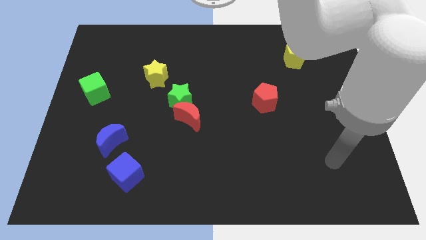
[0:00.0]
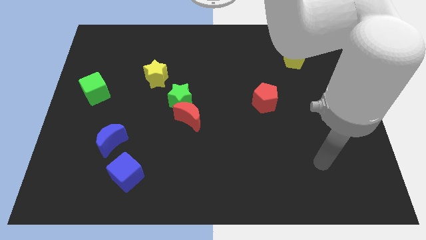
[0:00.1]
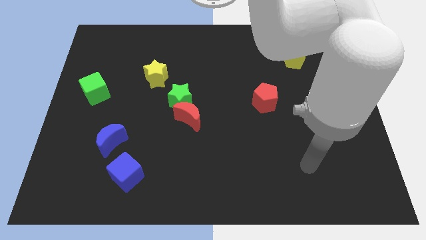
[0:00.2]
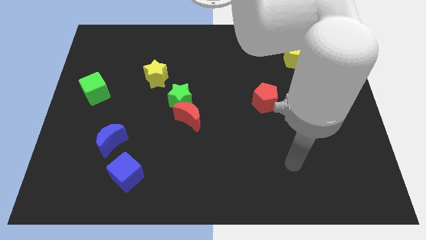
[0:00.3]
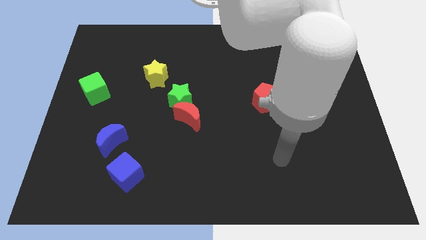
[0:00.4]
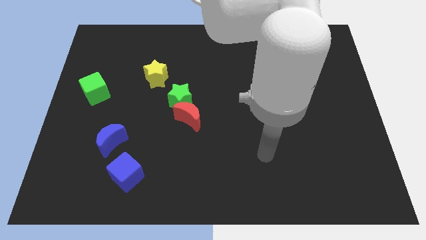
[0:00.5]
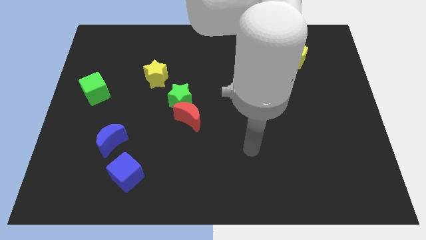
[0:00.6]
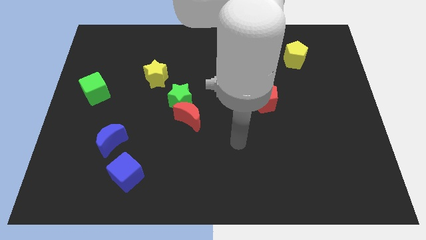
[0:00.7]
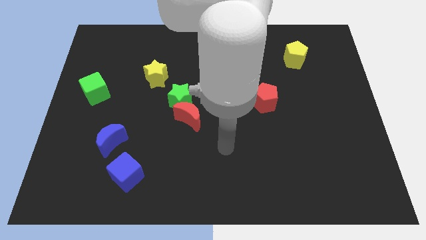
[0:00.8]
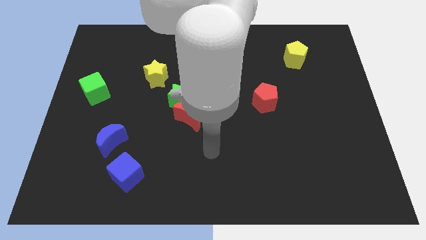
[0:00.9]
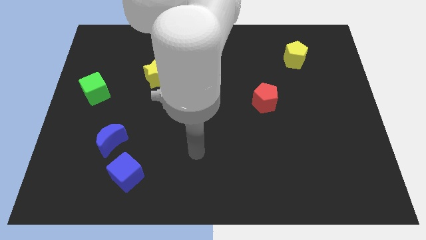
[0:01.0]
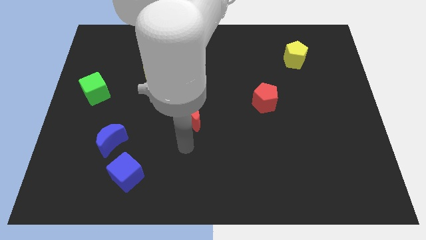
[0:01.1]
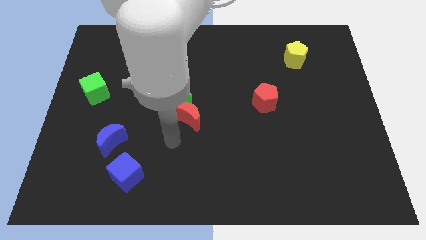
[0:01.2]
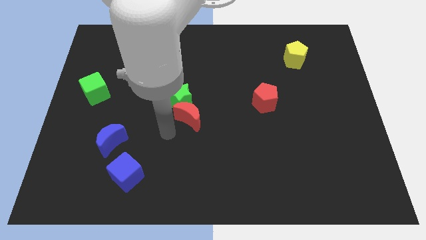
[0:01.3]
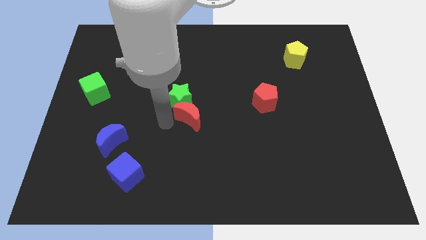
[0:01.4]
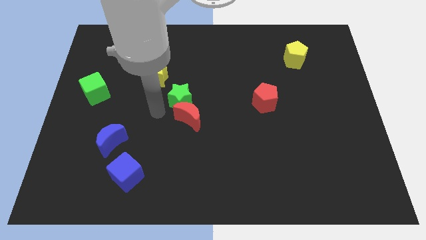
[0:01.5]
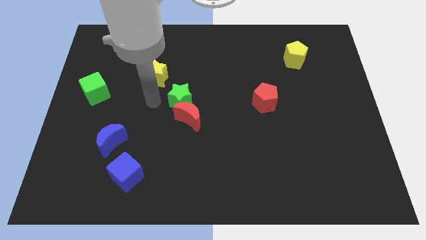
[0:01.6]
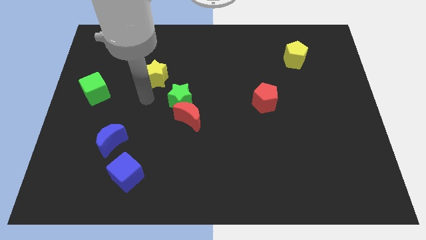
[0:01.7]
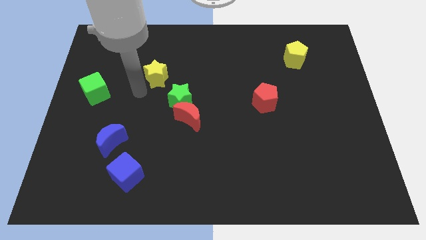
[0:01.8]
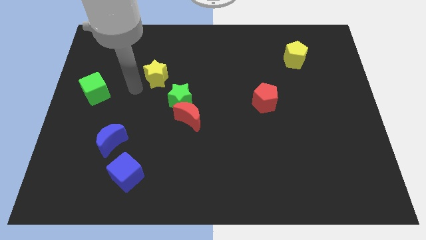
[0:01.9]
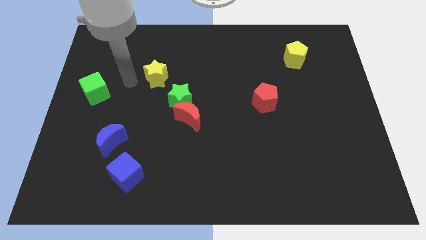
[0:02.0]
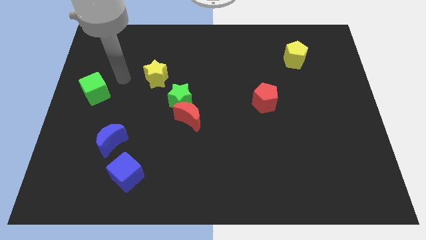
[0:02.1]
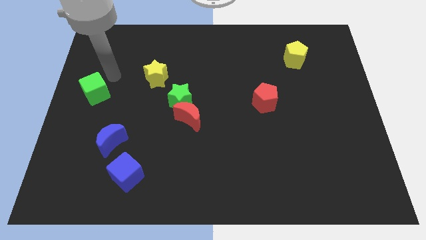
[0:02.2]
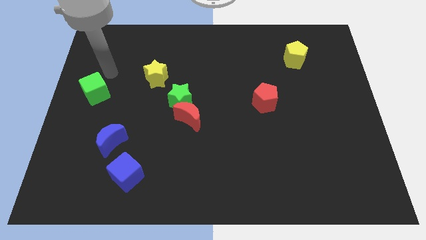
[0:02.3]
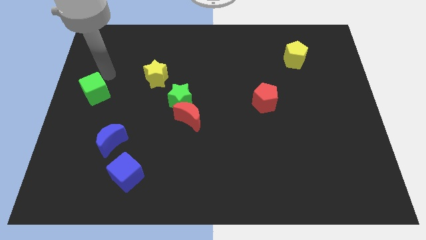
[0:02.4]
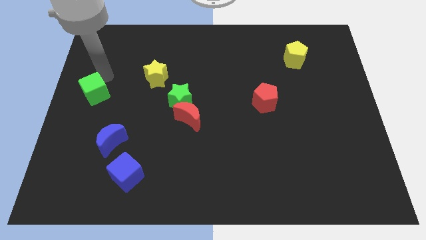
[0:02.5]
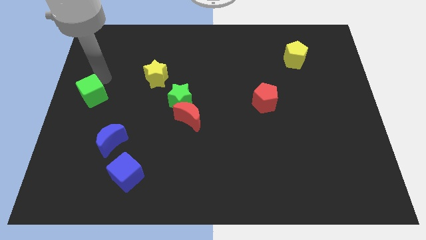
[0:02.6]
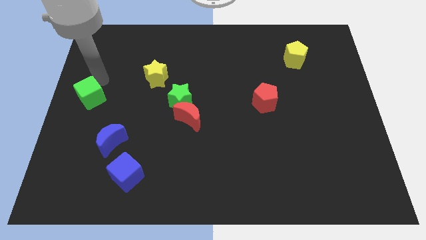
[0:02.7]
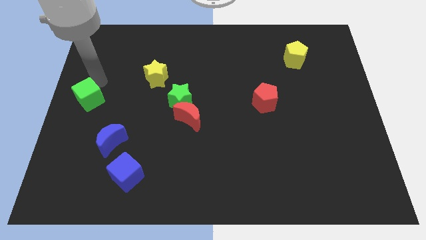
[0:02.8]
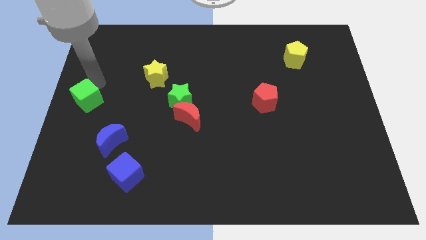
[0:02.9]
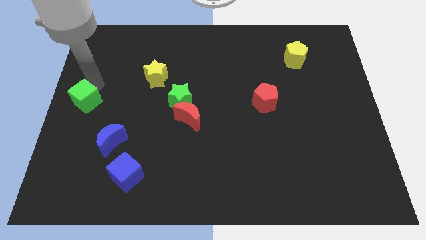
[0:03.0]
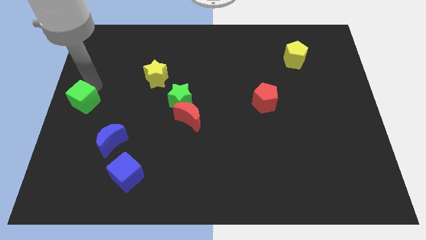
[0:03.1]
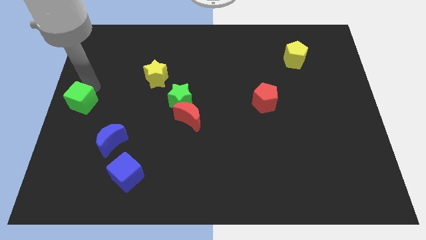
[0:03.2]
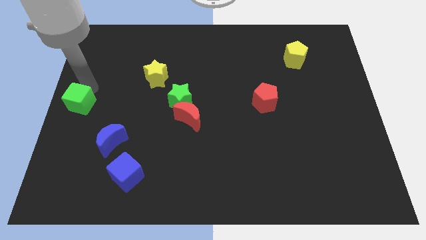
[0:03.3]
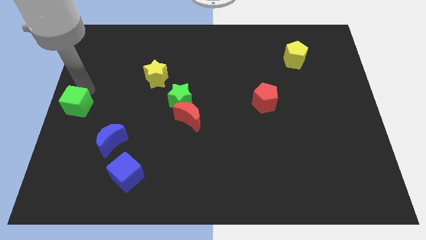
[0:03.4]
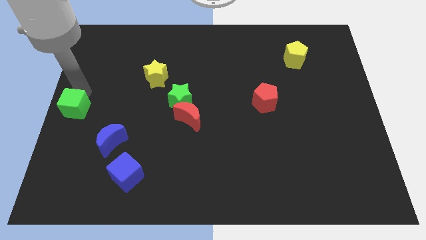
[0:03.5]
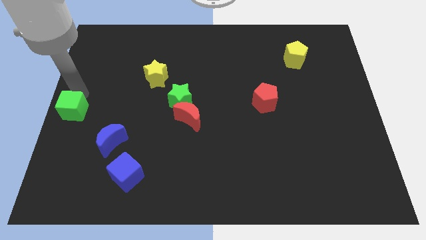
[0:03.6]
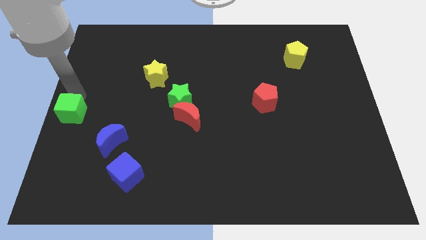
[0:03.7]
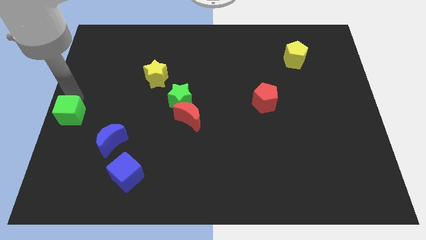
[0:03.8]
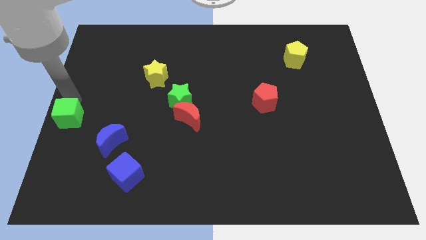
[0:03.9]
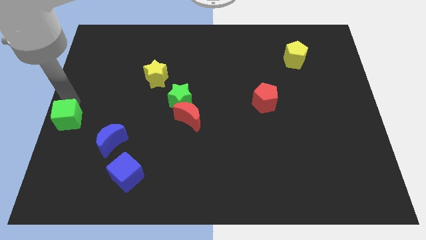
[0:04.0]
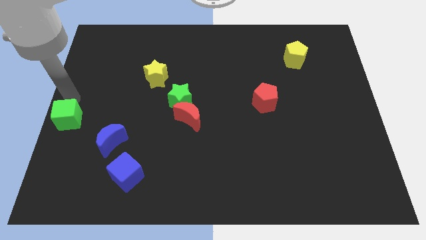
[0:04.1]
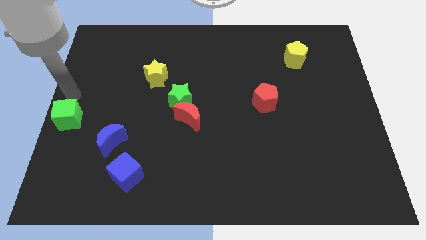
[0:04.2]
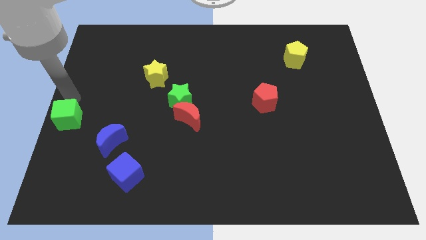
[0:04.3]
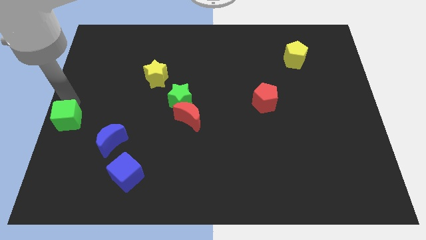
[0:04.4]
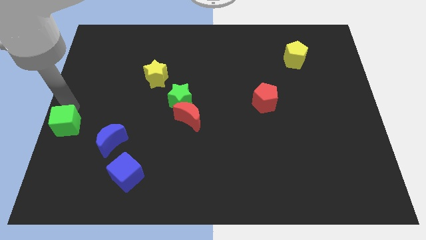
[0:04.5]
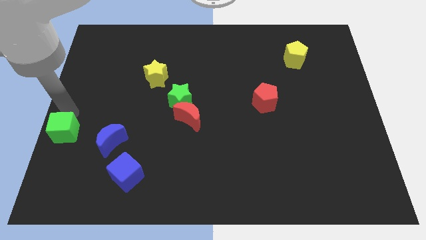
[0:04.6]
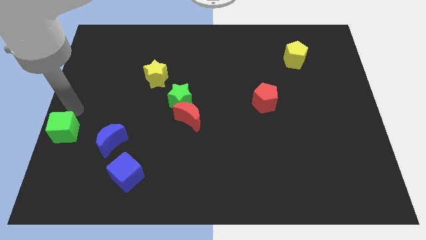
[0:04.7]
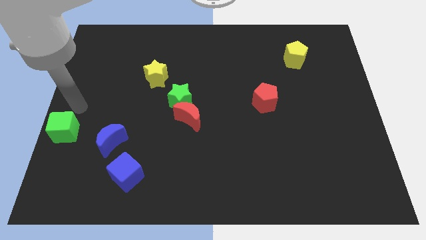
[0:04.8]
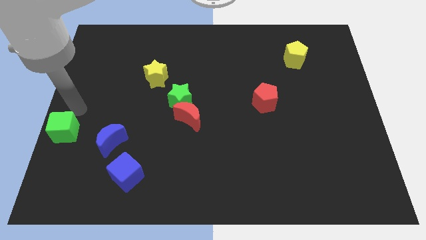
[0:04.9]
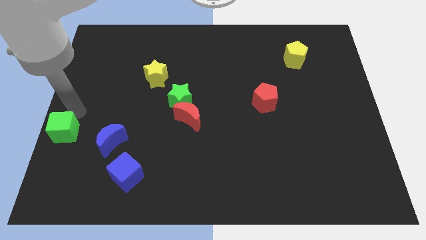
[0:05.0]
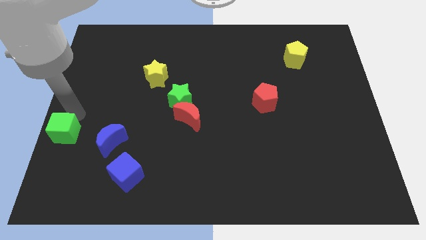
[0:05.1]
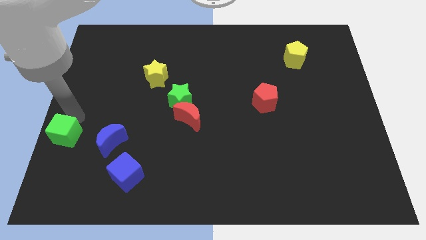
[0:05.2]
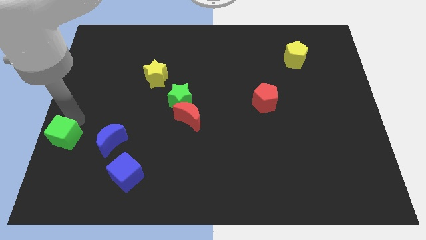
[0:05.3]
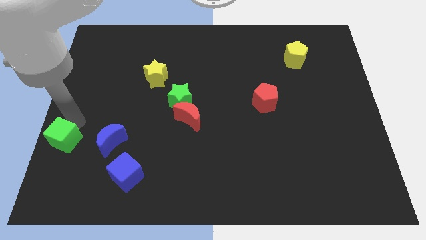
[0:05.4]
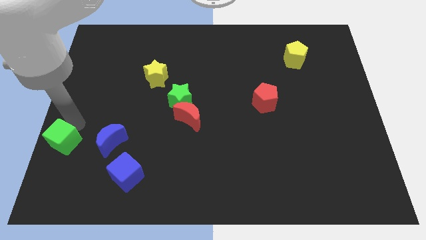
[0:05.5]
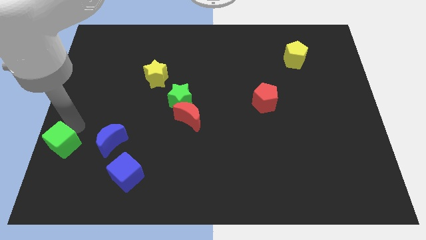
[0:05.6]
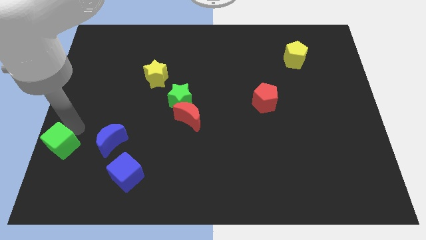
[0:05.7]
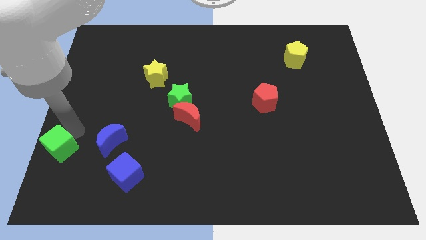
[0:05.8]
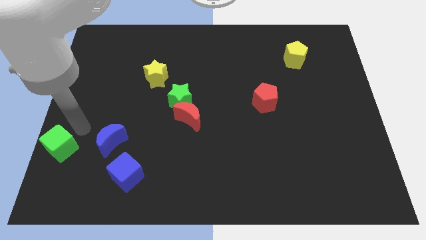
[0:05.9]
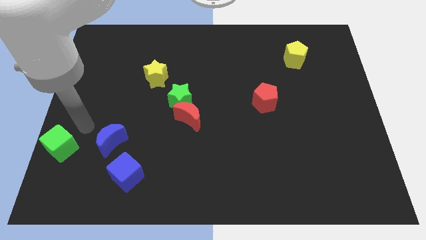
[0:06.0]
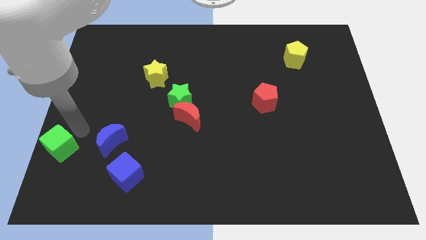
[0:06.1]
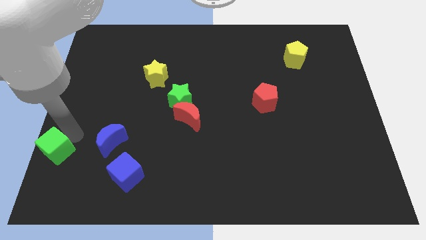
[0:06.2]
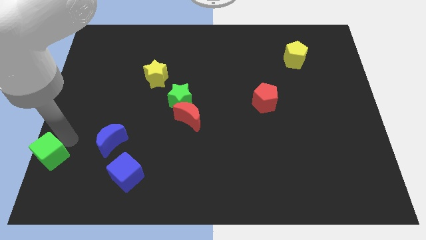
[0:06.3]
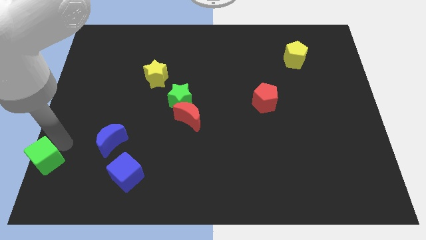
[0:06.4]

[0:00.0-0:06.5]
move the green cube to the bottom left
